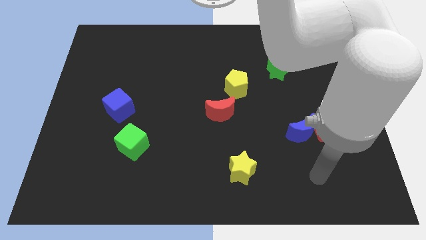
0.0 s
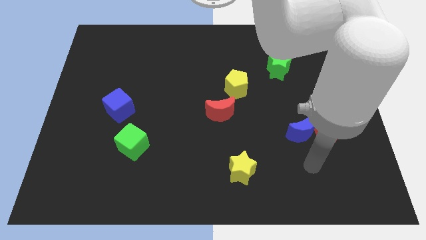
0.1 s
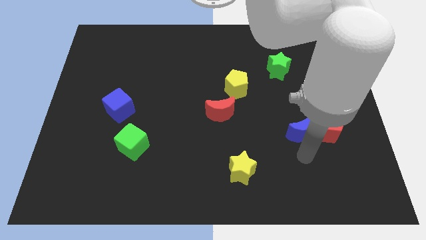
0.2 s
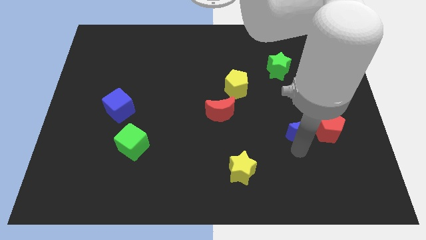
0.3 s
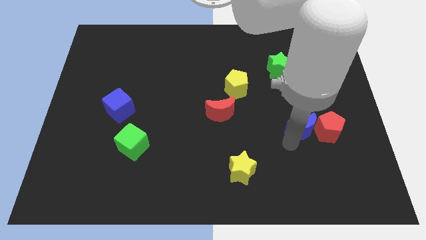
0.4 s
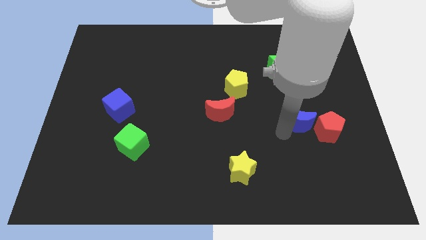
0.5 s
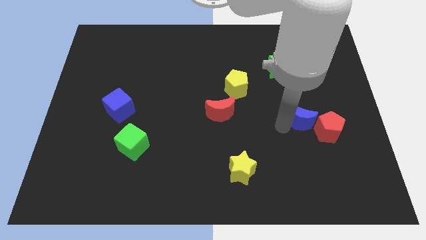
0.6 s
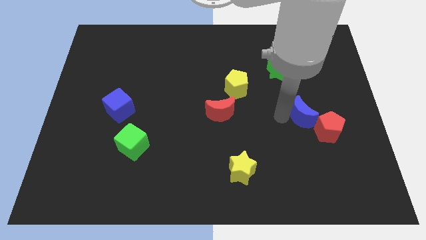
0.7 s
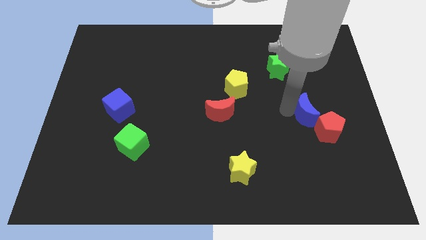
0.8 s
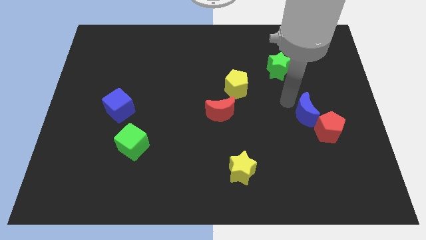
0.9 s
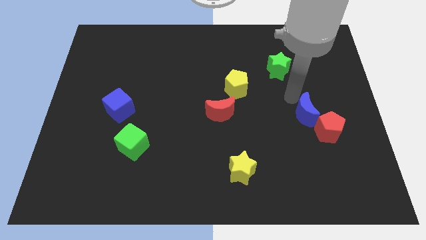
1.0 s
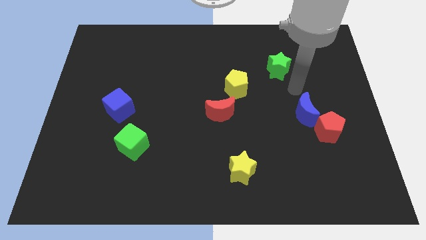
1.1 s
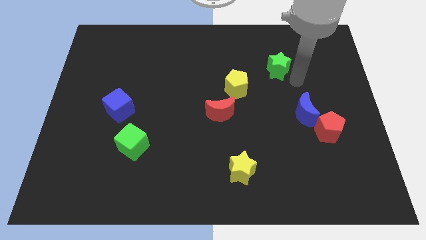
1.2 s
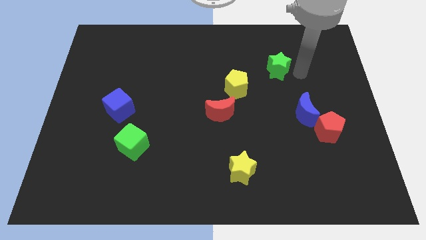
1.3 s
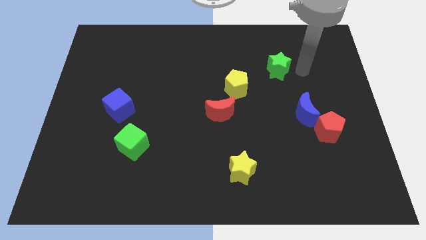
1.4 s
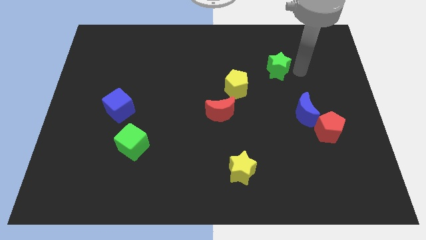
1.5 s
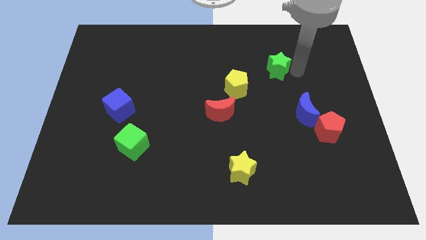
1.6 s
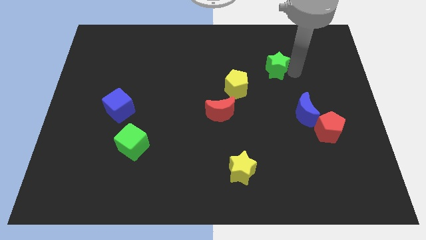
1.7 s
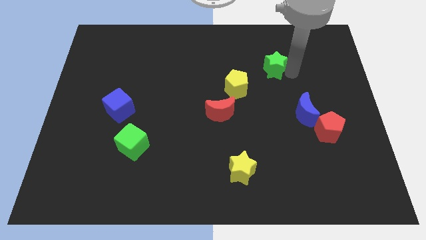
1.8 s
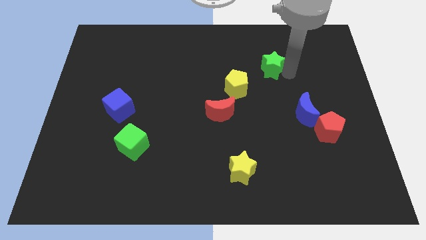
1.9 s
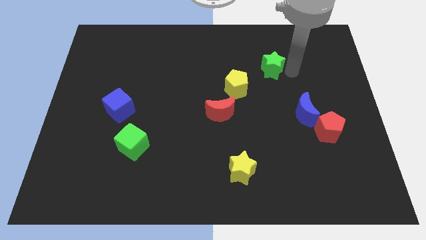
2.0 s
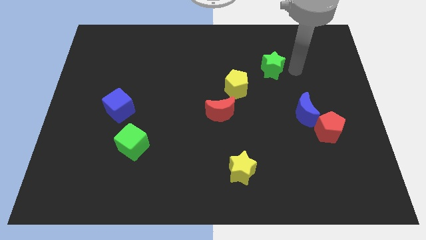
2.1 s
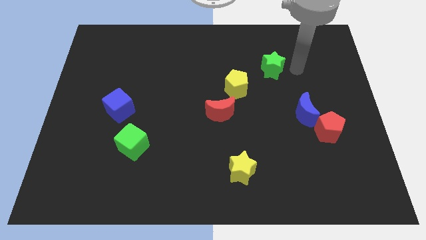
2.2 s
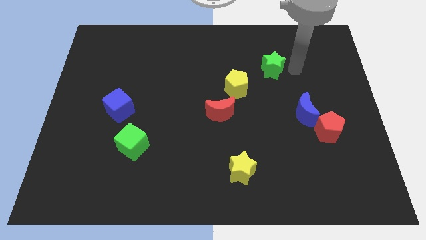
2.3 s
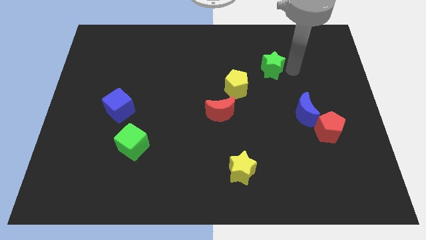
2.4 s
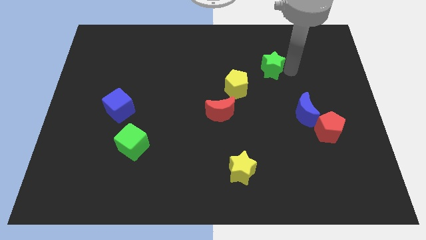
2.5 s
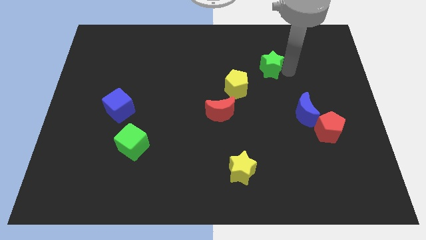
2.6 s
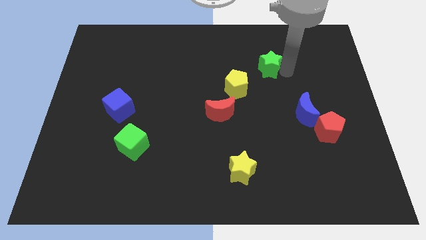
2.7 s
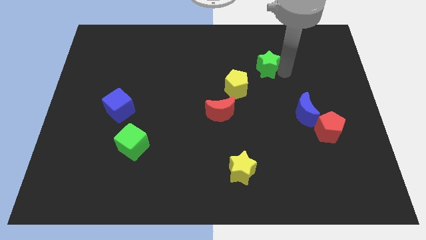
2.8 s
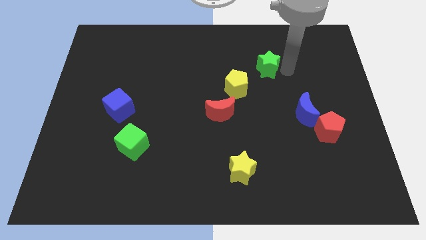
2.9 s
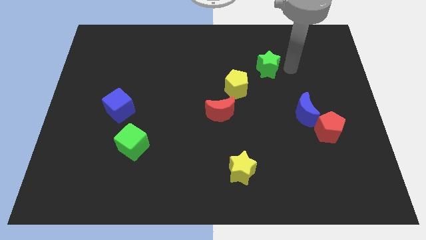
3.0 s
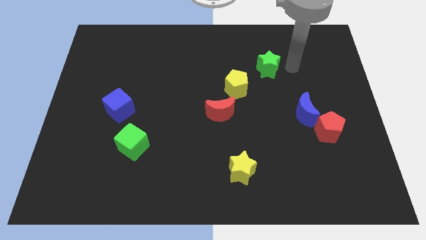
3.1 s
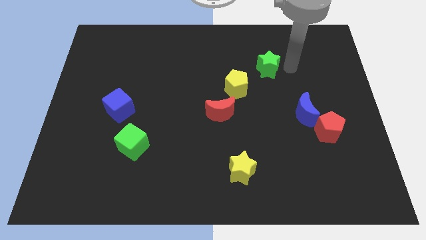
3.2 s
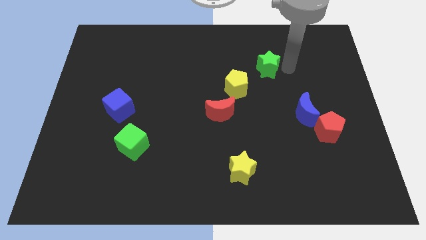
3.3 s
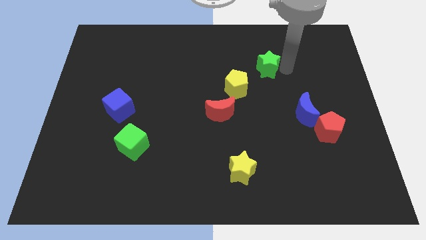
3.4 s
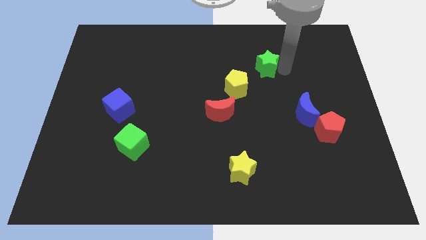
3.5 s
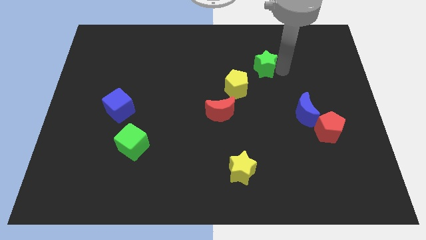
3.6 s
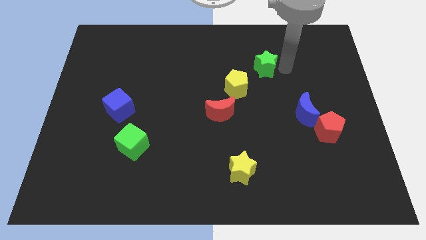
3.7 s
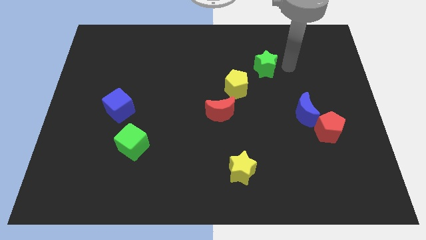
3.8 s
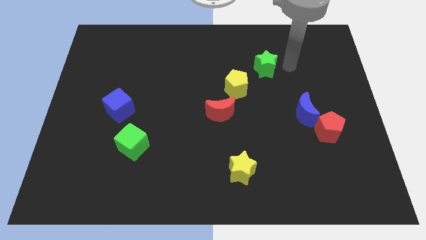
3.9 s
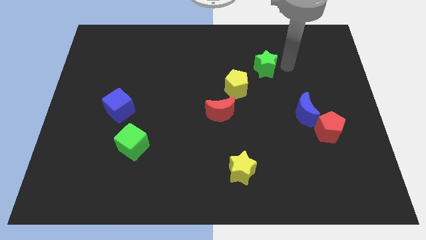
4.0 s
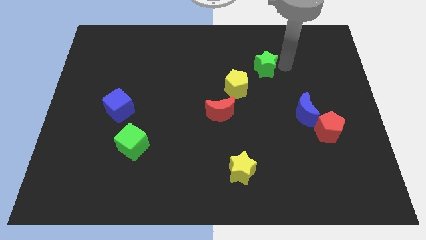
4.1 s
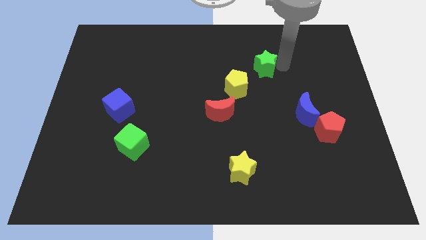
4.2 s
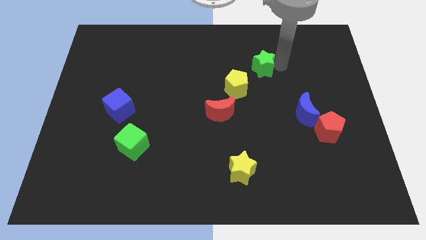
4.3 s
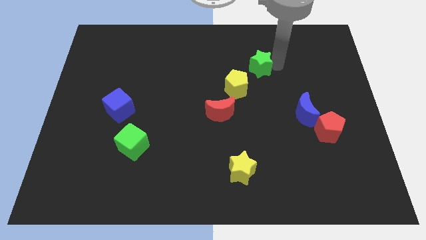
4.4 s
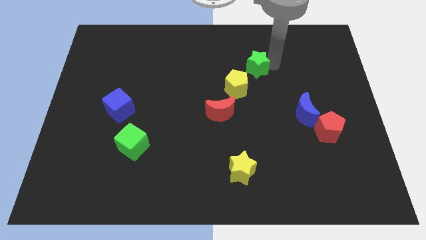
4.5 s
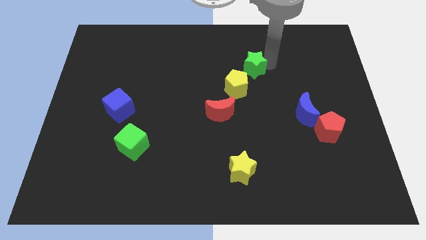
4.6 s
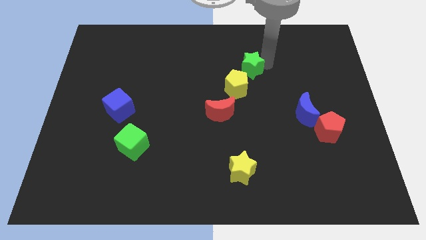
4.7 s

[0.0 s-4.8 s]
slide the green star a little to the left

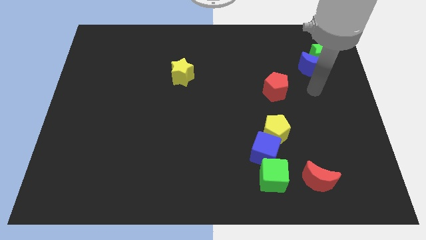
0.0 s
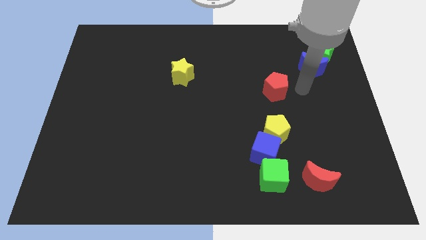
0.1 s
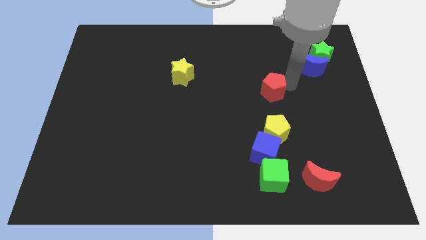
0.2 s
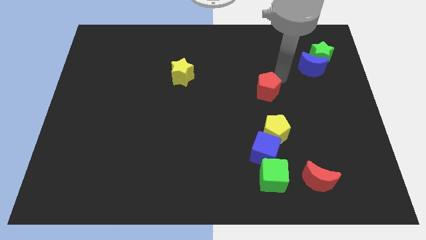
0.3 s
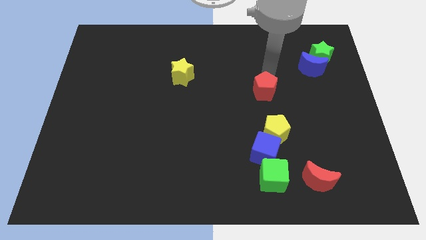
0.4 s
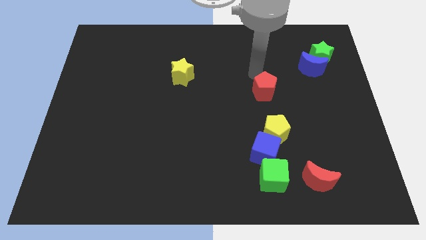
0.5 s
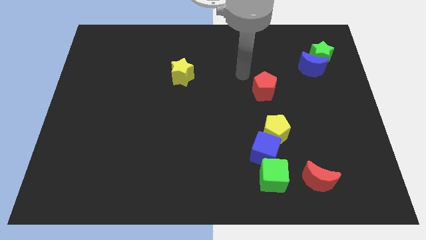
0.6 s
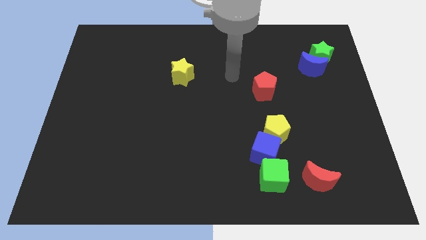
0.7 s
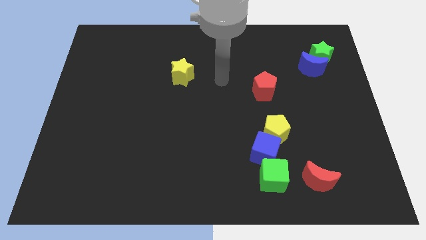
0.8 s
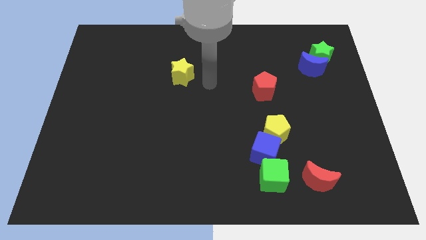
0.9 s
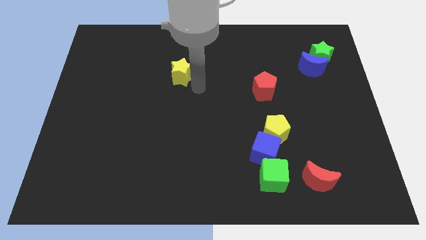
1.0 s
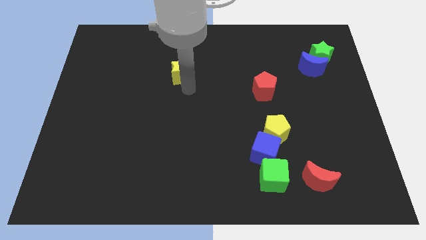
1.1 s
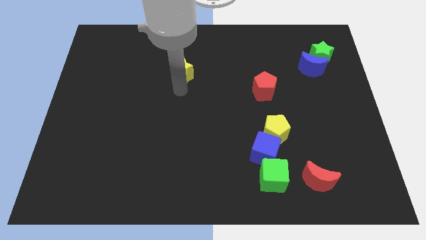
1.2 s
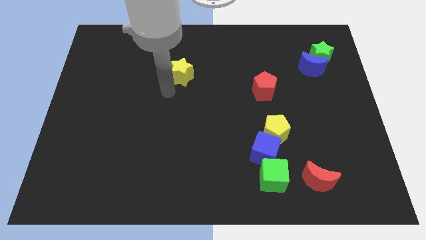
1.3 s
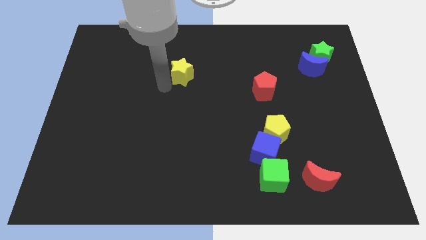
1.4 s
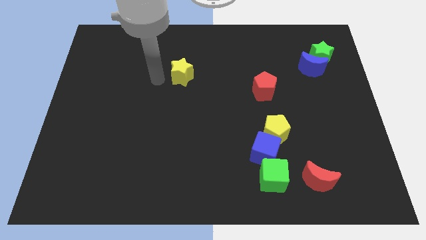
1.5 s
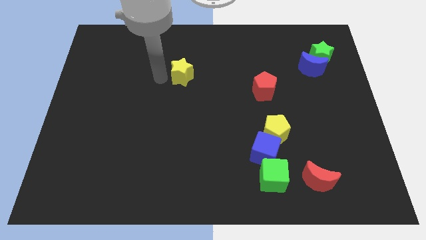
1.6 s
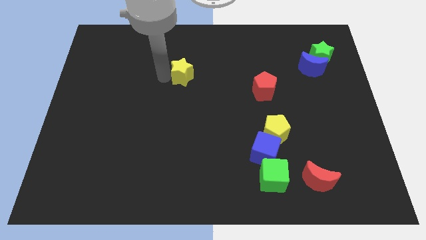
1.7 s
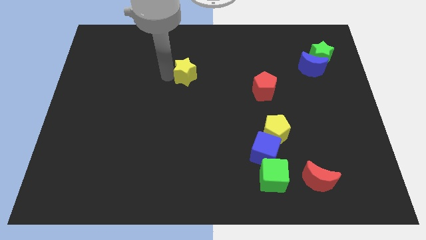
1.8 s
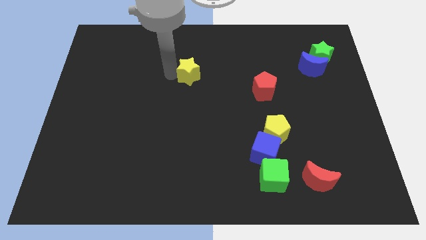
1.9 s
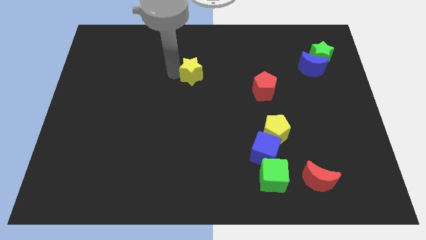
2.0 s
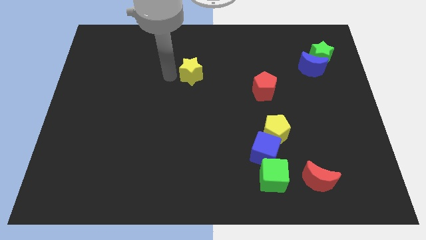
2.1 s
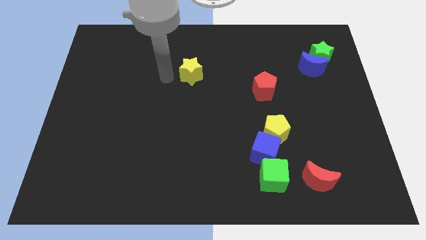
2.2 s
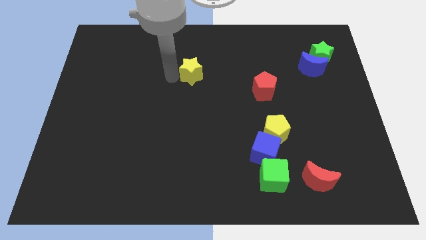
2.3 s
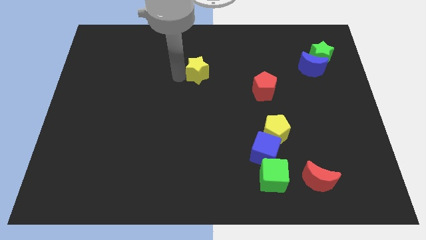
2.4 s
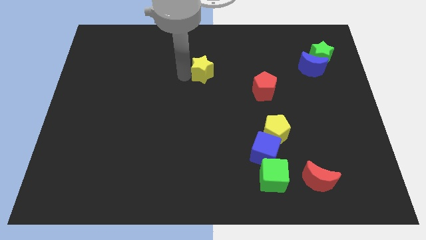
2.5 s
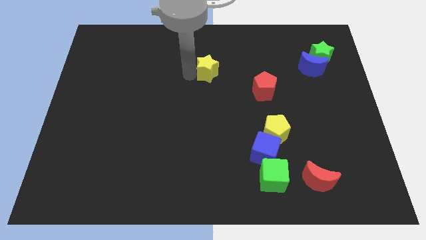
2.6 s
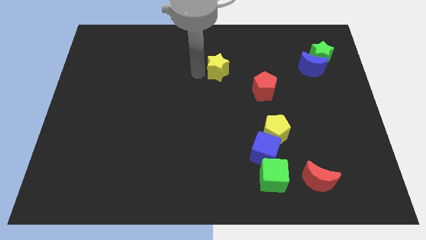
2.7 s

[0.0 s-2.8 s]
push the yellow star a little right

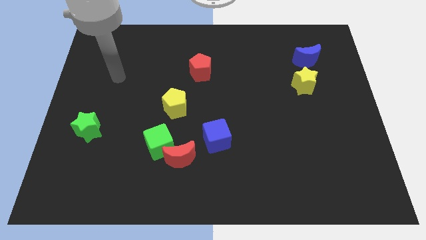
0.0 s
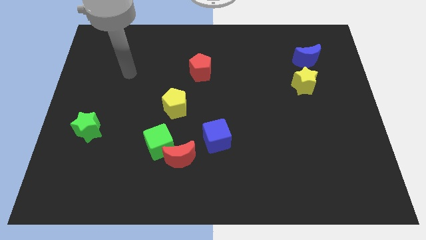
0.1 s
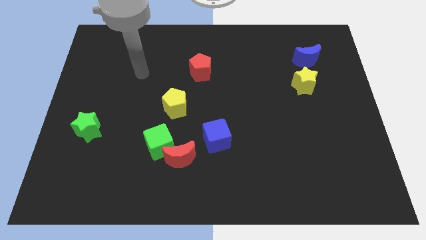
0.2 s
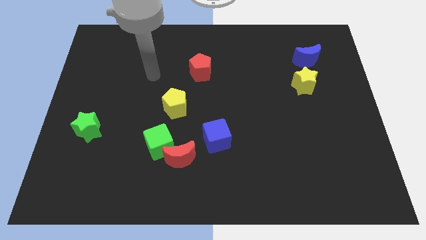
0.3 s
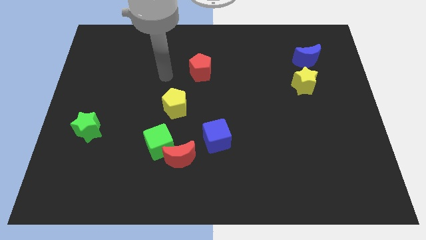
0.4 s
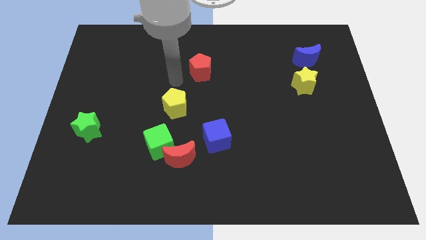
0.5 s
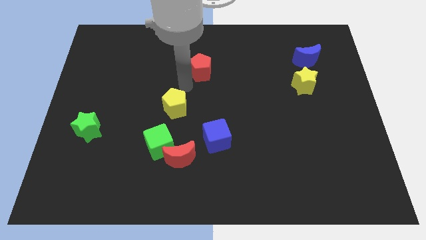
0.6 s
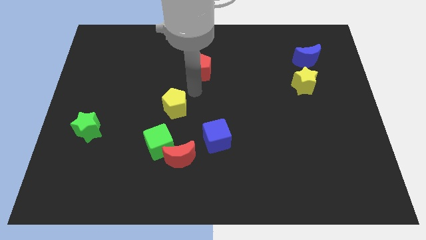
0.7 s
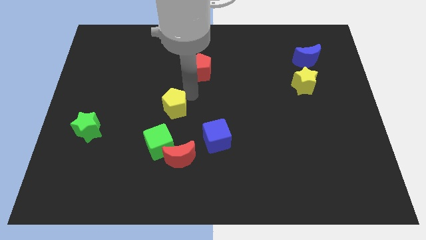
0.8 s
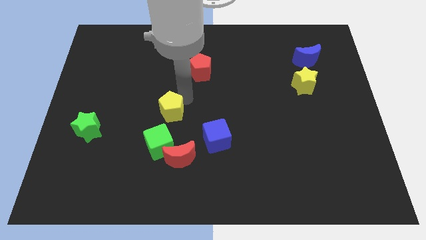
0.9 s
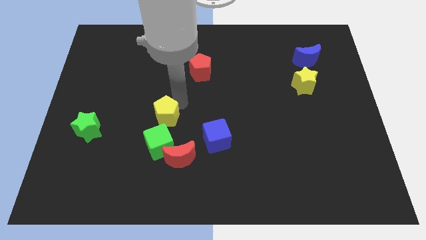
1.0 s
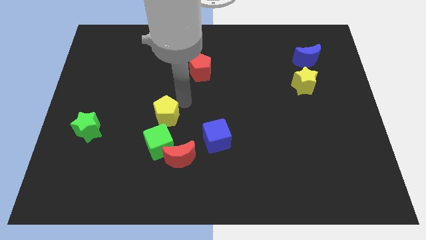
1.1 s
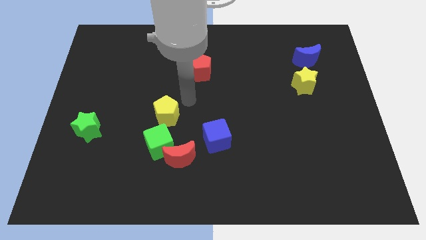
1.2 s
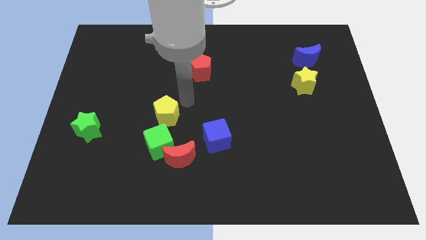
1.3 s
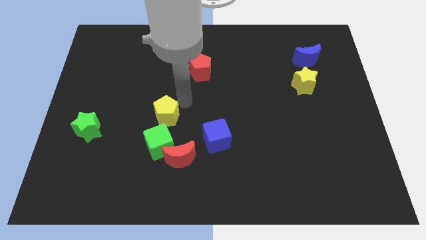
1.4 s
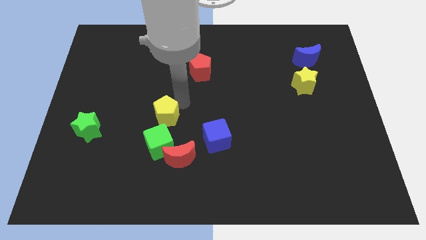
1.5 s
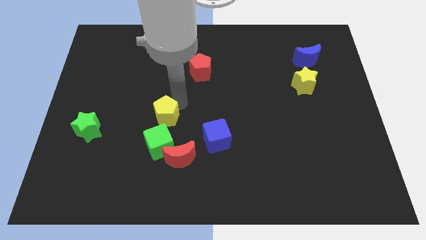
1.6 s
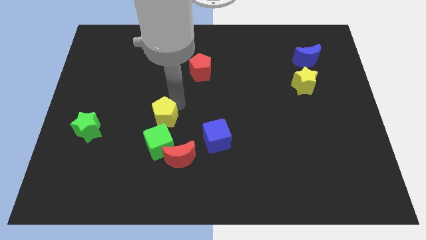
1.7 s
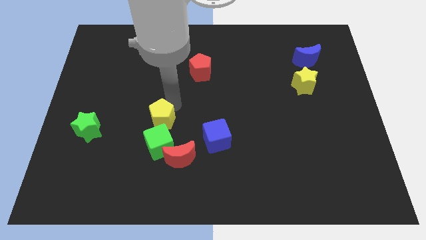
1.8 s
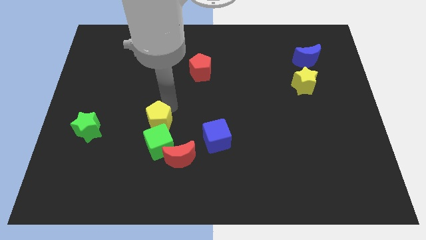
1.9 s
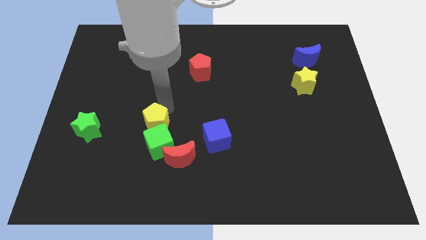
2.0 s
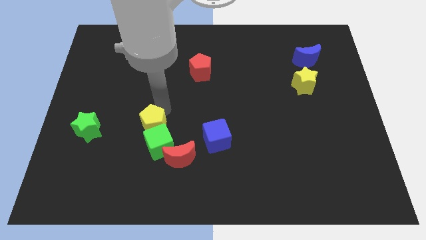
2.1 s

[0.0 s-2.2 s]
move the yellow pentagon slightly down and then to the left
